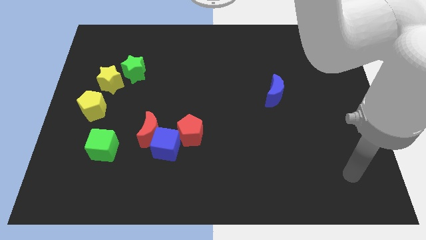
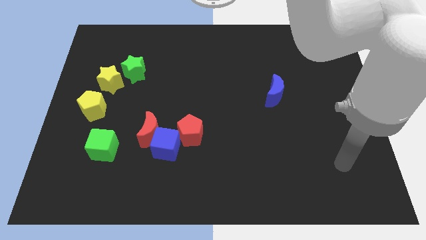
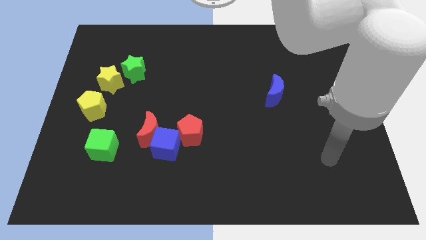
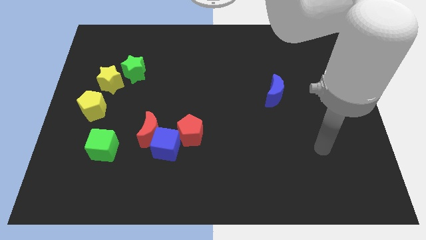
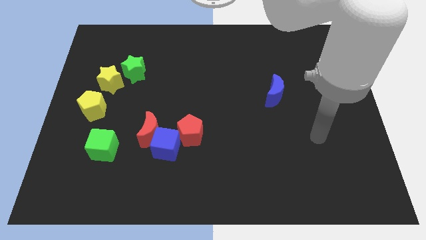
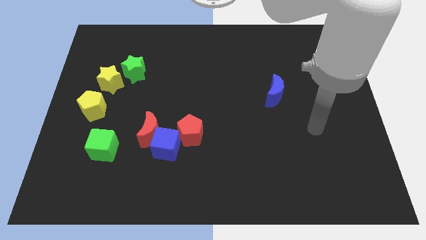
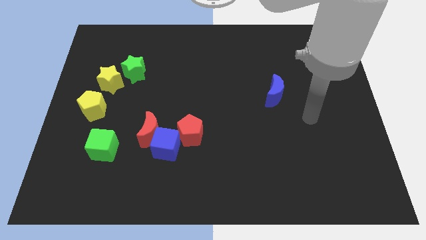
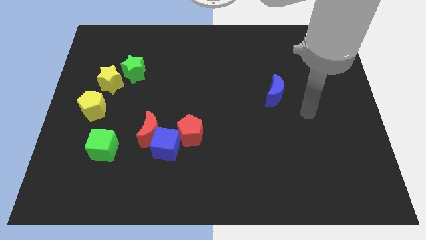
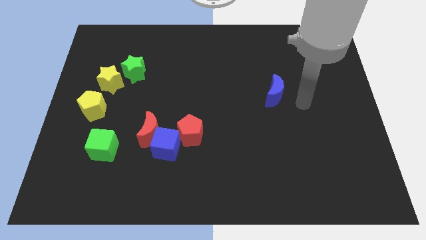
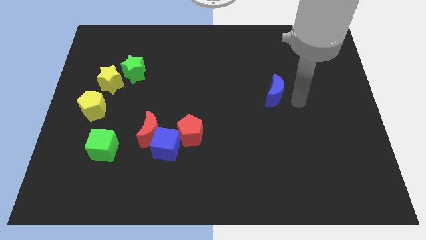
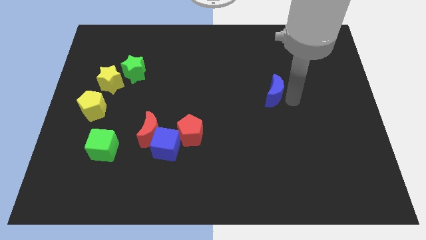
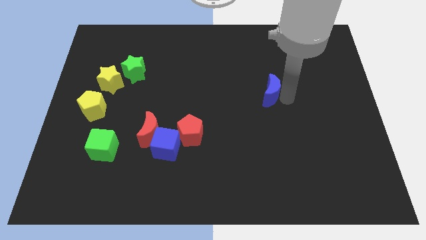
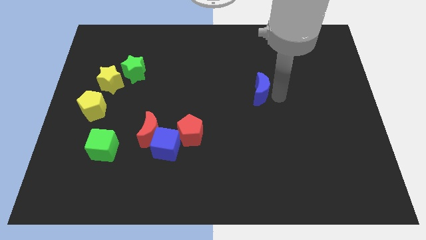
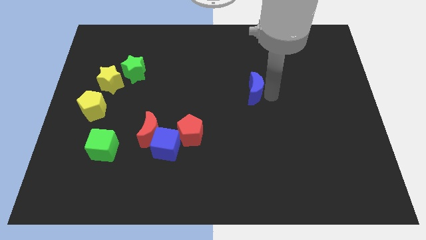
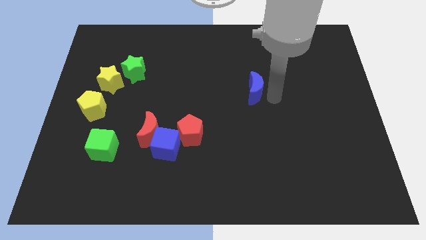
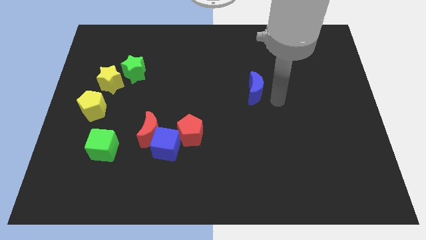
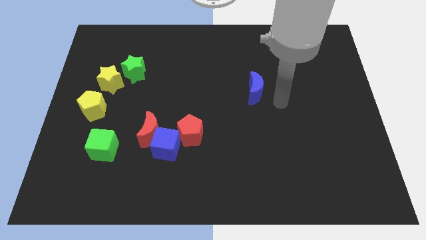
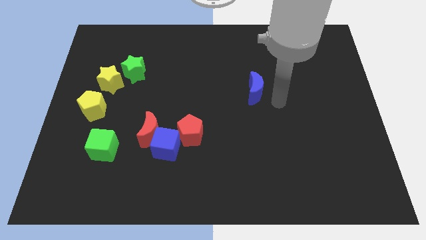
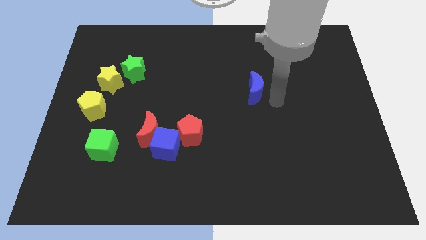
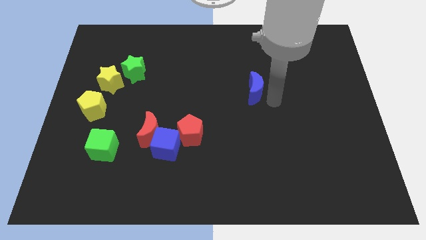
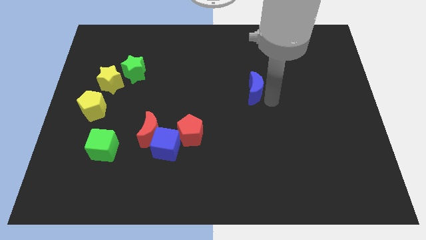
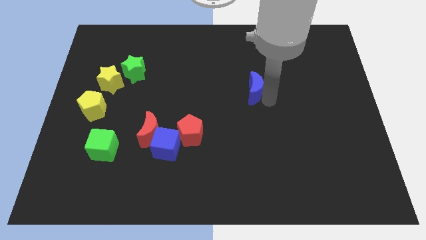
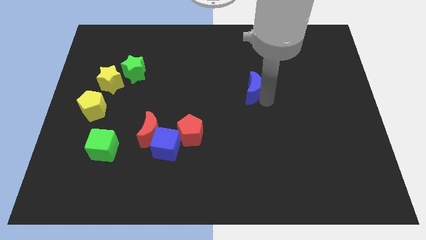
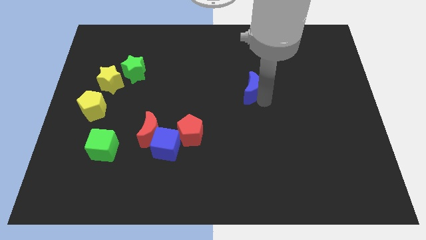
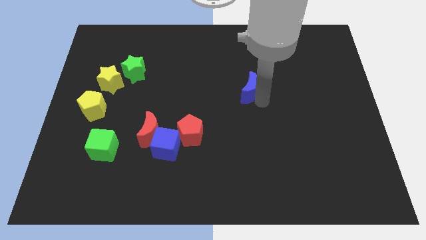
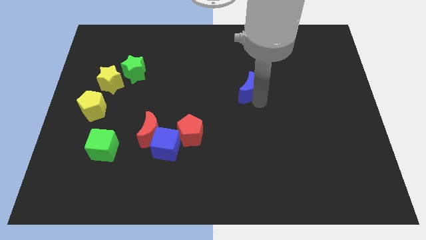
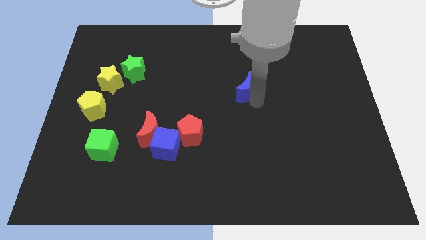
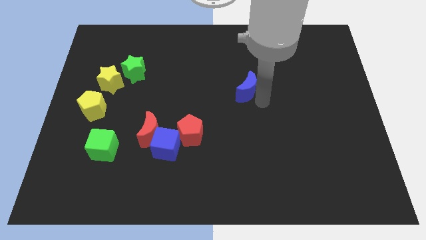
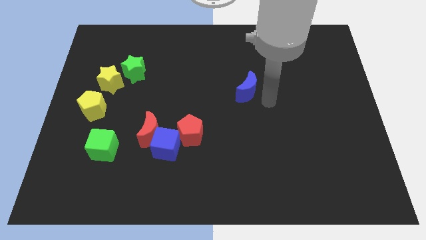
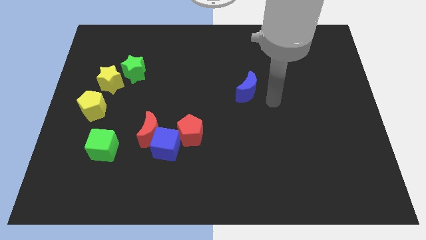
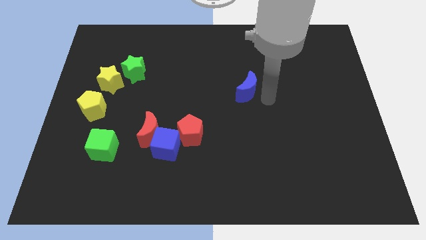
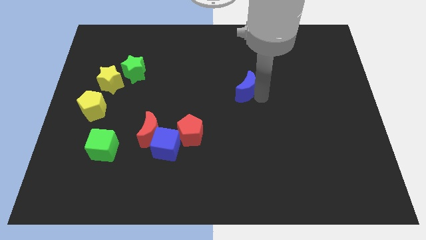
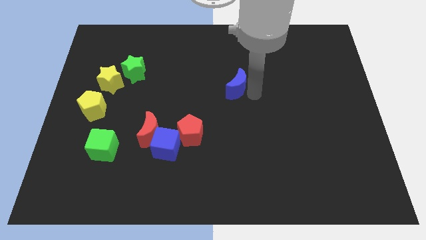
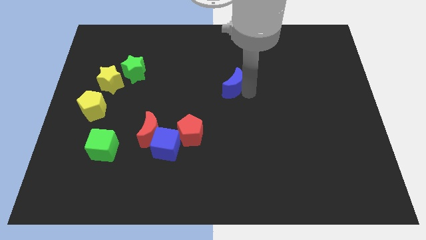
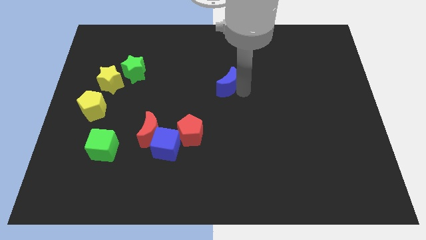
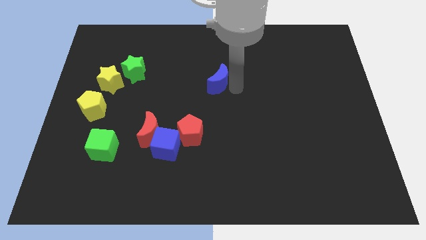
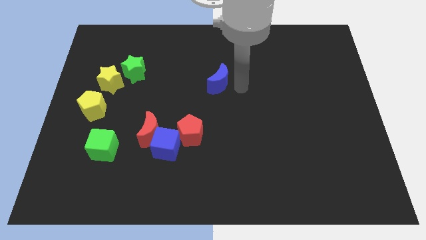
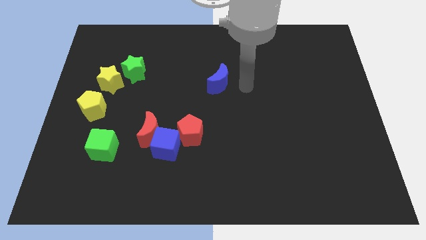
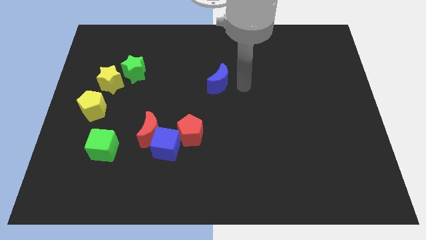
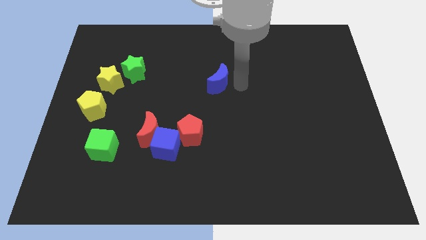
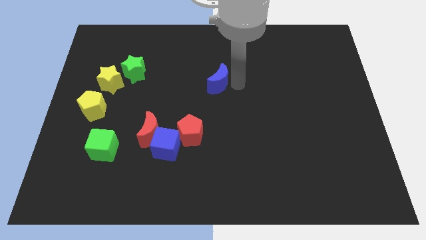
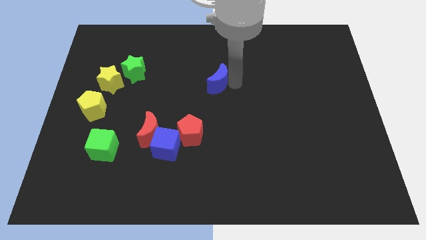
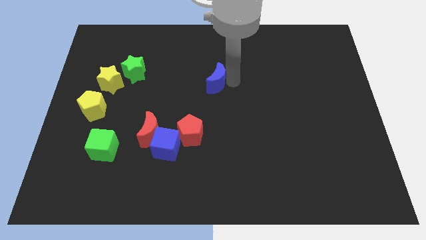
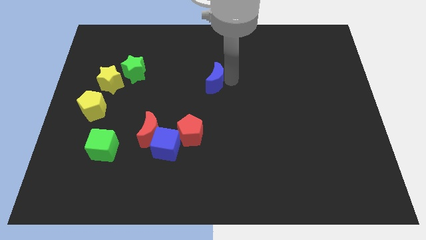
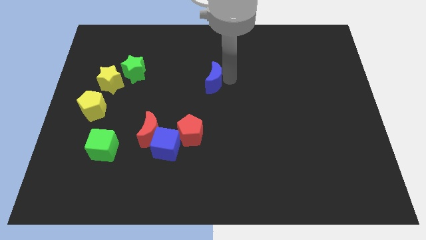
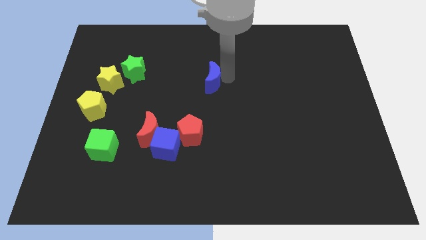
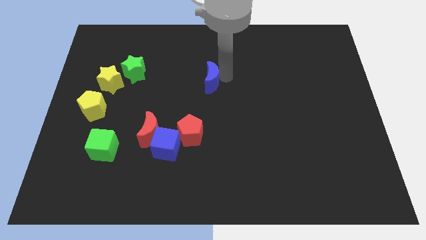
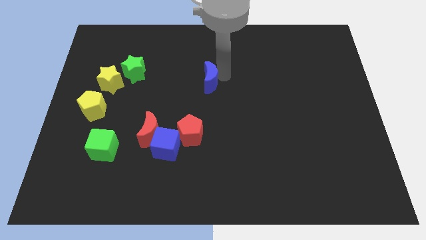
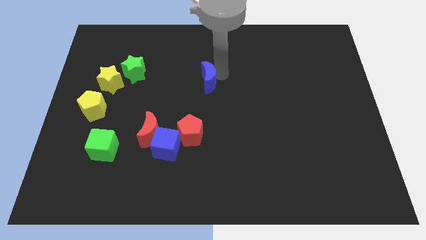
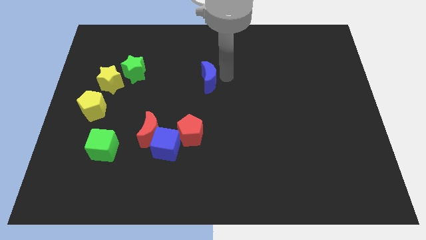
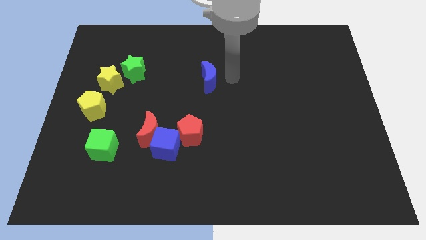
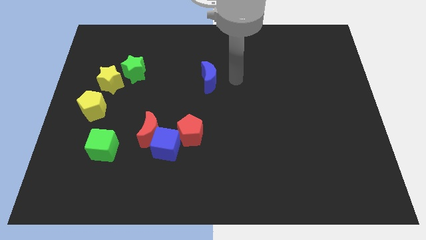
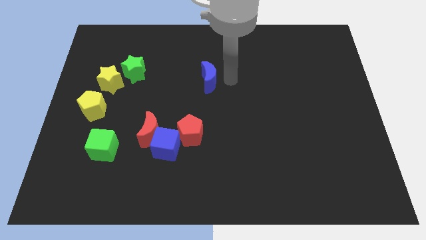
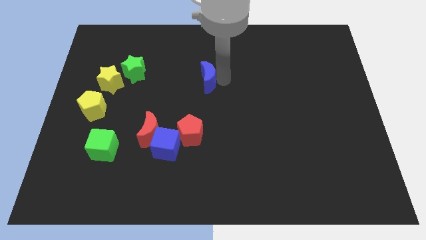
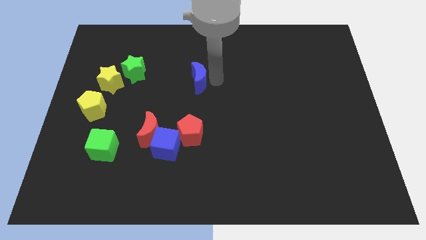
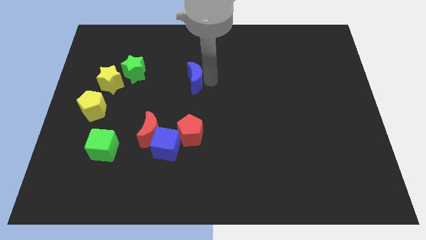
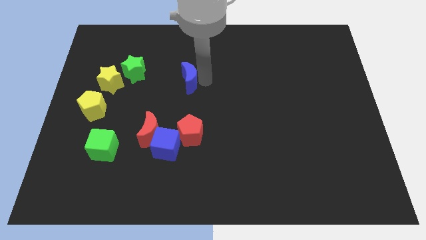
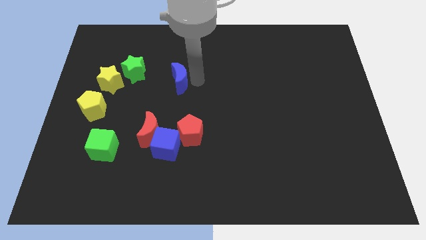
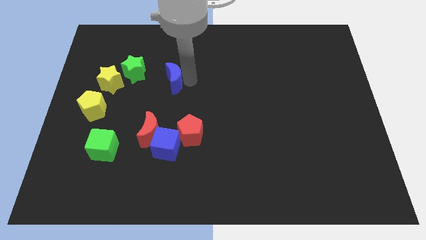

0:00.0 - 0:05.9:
put the blue moon just right of the yellow star
